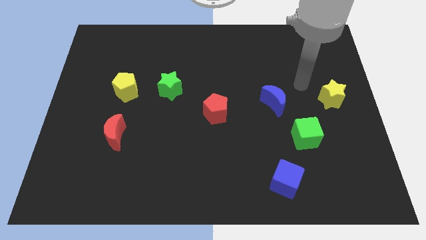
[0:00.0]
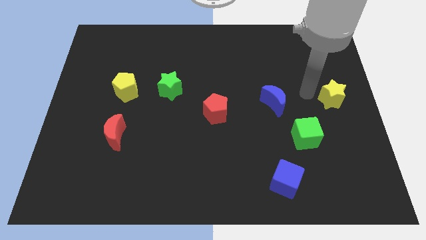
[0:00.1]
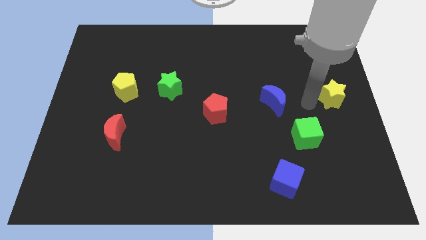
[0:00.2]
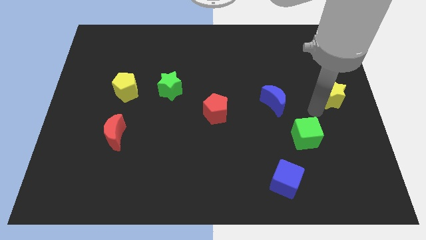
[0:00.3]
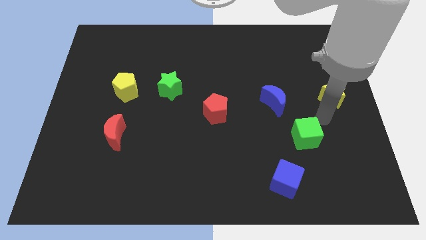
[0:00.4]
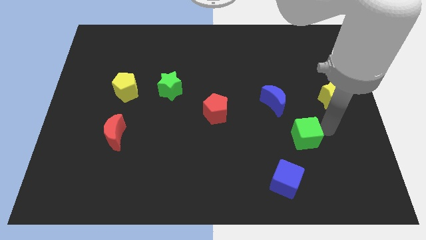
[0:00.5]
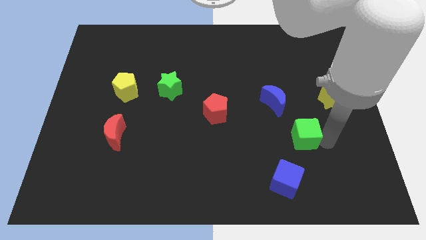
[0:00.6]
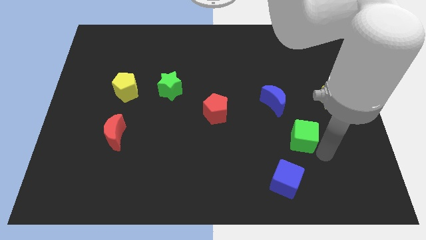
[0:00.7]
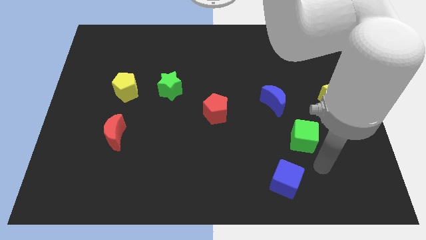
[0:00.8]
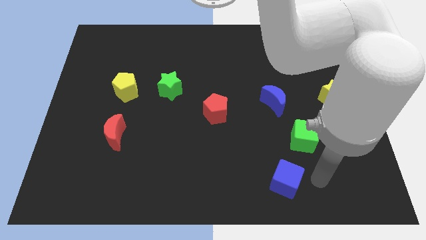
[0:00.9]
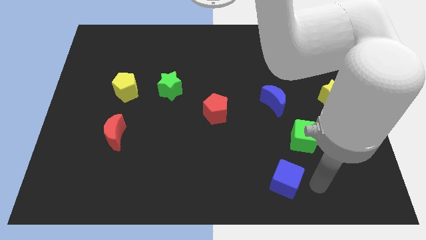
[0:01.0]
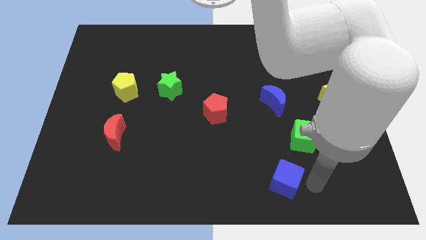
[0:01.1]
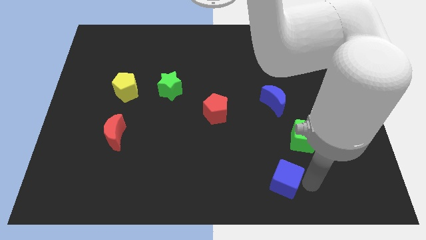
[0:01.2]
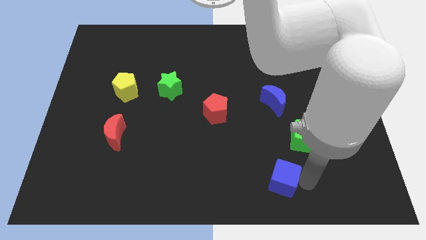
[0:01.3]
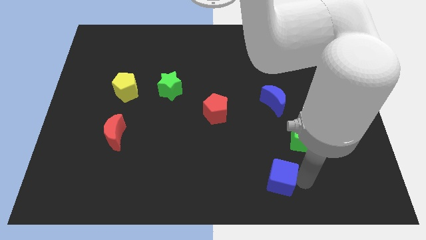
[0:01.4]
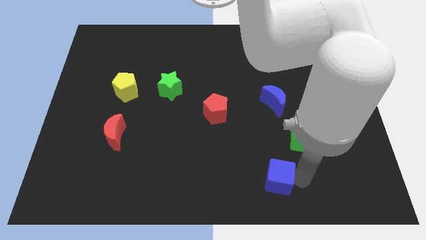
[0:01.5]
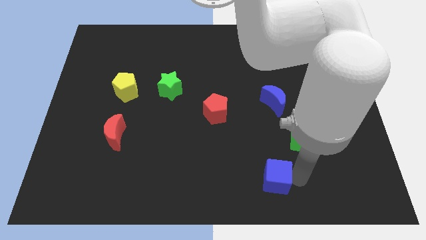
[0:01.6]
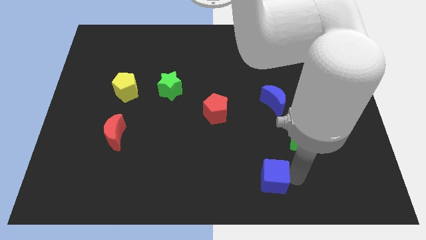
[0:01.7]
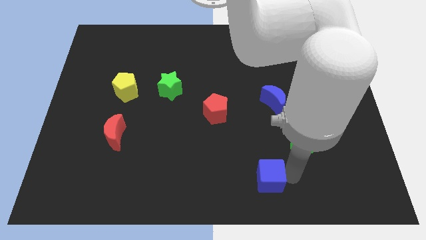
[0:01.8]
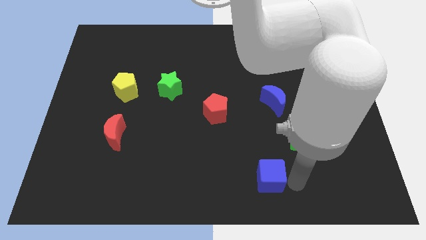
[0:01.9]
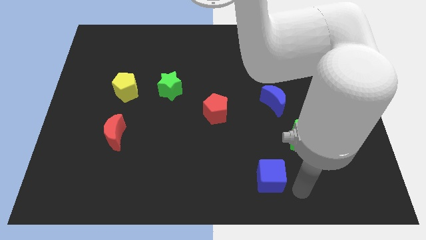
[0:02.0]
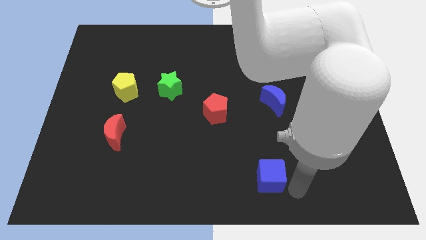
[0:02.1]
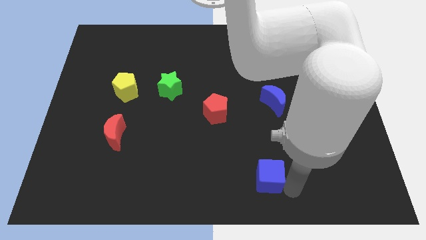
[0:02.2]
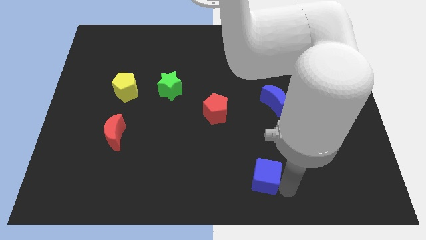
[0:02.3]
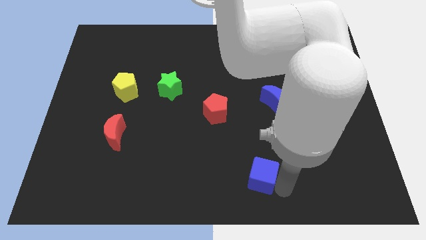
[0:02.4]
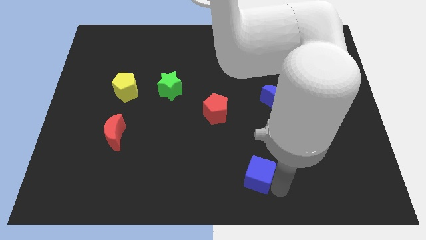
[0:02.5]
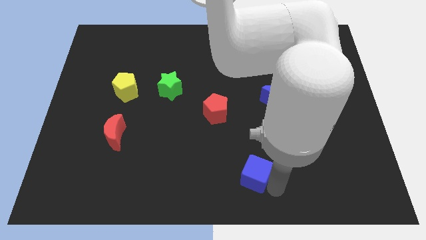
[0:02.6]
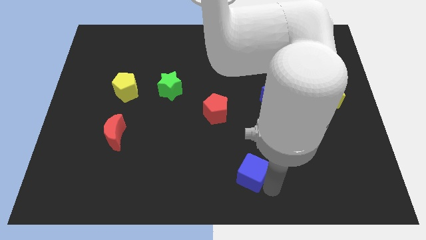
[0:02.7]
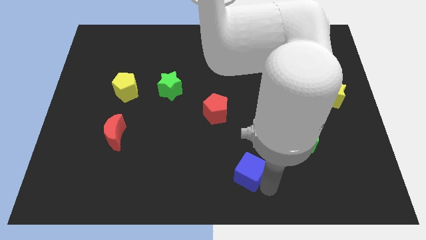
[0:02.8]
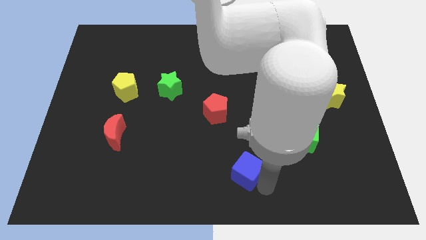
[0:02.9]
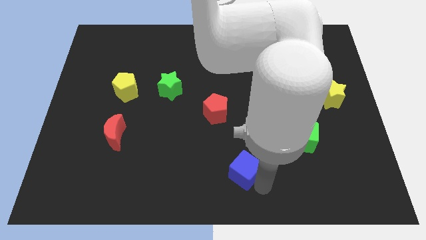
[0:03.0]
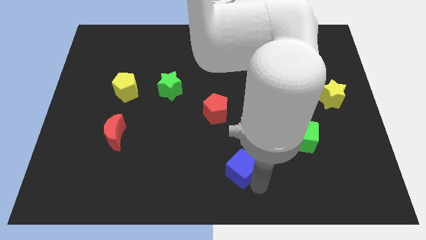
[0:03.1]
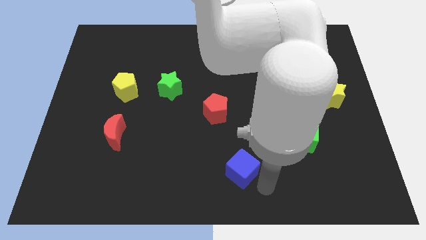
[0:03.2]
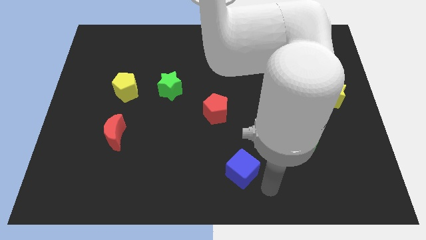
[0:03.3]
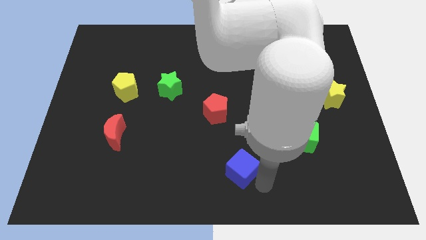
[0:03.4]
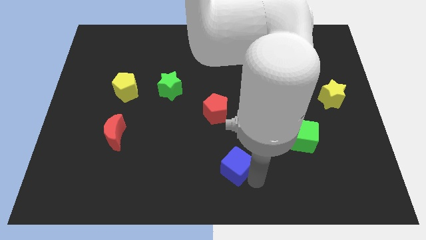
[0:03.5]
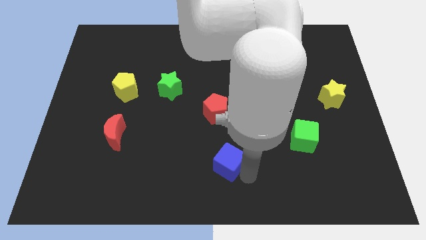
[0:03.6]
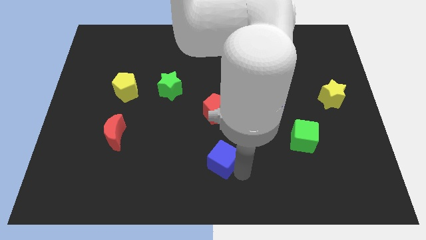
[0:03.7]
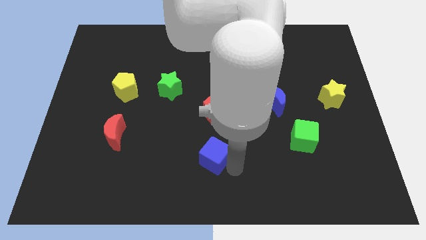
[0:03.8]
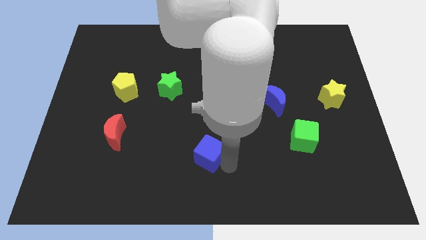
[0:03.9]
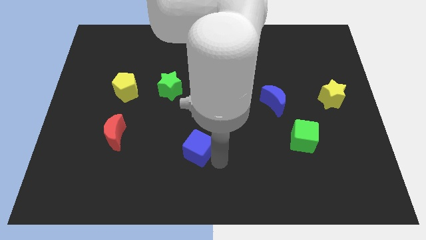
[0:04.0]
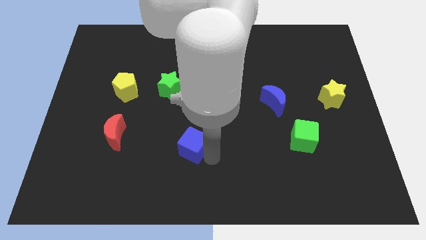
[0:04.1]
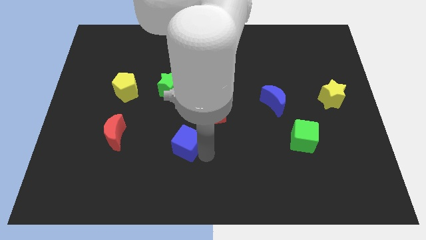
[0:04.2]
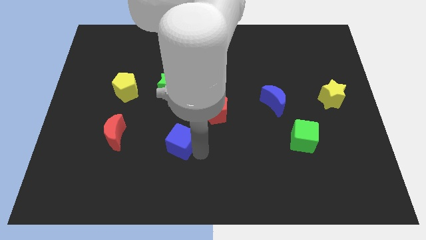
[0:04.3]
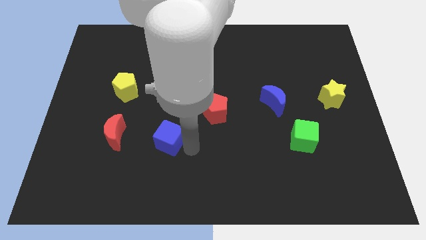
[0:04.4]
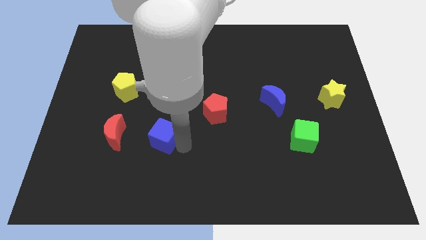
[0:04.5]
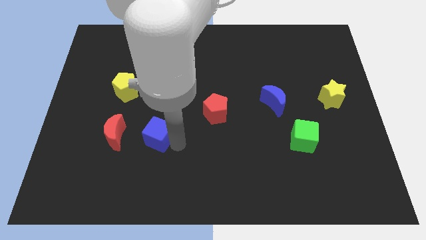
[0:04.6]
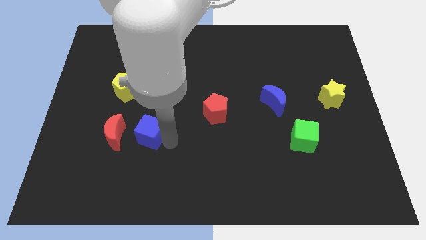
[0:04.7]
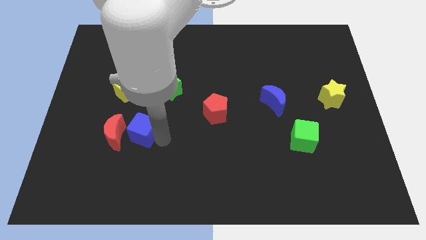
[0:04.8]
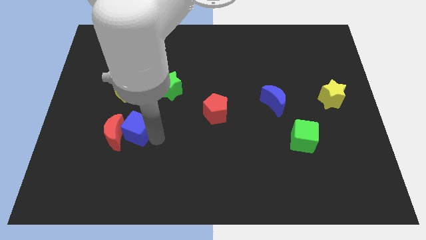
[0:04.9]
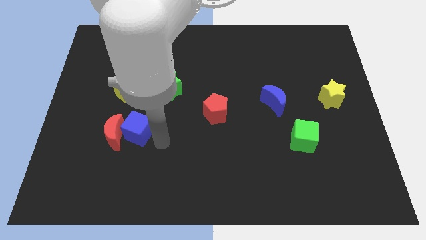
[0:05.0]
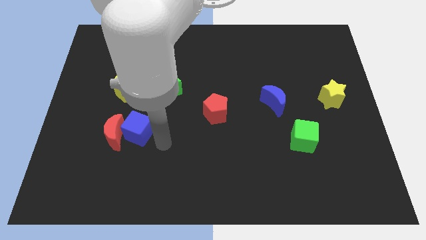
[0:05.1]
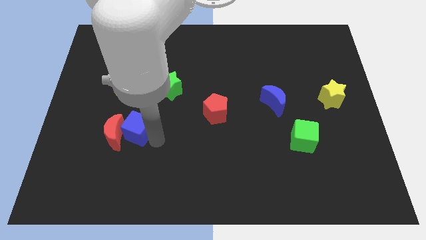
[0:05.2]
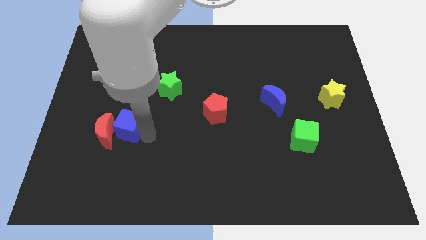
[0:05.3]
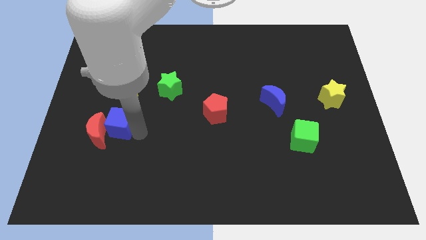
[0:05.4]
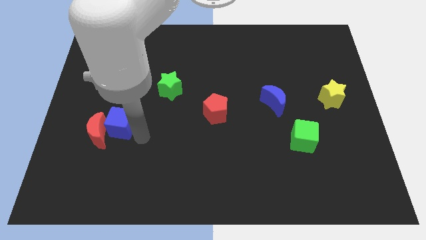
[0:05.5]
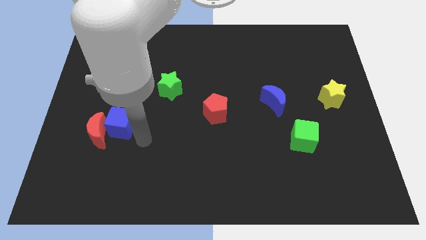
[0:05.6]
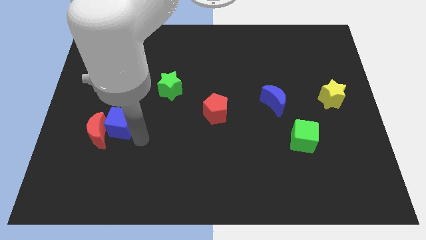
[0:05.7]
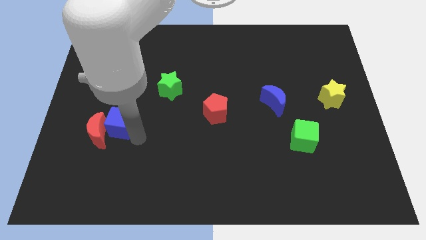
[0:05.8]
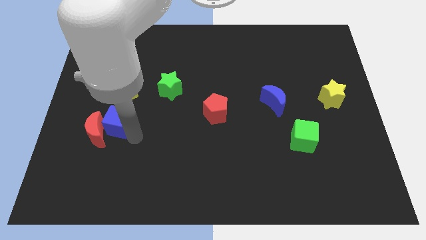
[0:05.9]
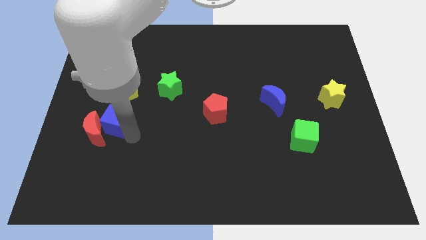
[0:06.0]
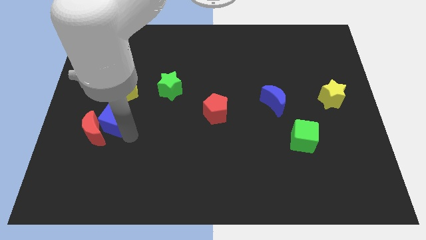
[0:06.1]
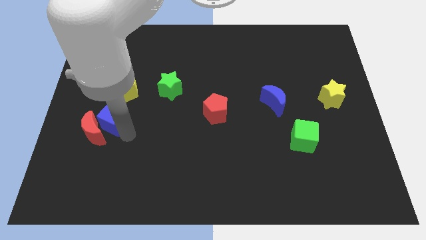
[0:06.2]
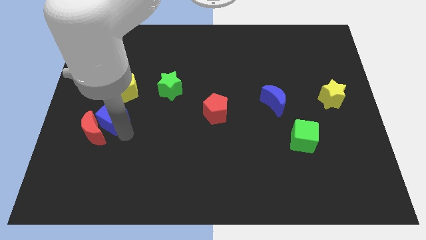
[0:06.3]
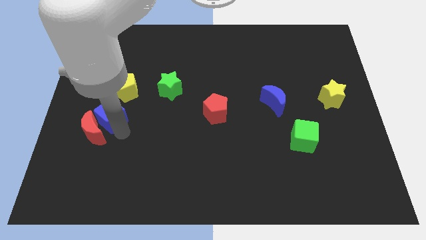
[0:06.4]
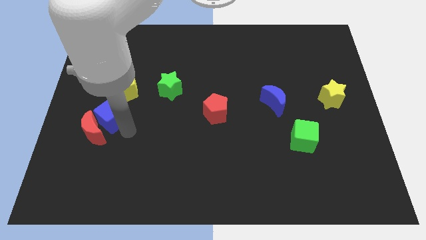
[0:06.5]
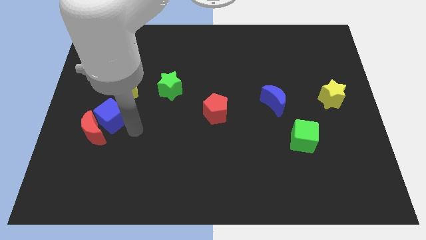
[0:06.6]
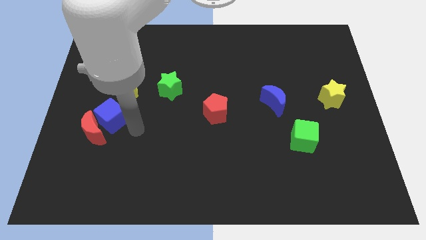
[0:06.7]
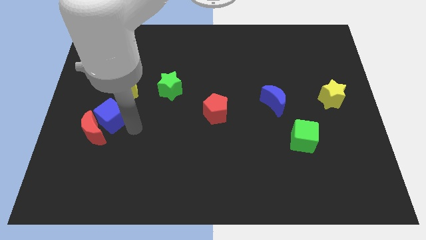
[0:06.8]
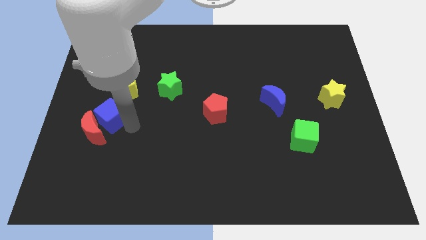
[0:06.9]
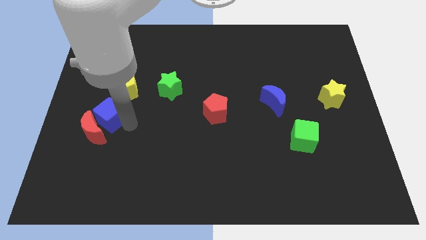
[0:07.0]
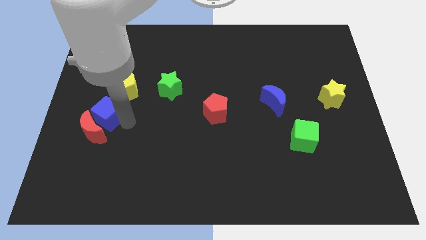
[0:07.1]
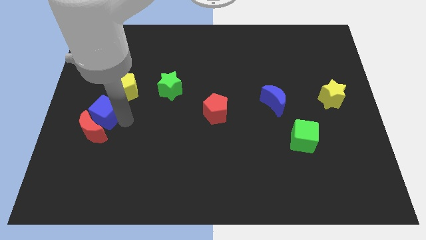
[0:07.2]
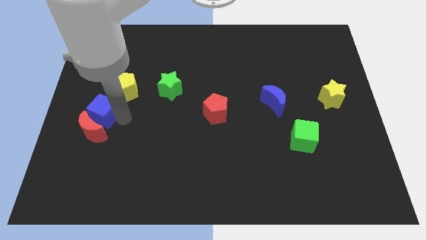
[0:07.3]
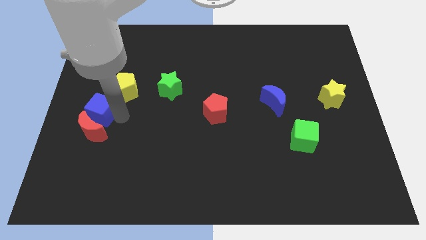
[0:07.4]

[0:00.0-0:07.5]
put the blue cube to the left side
